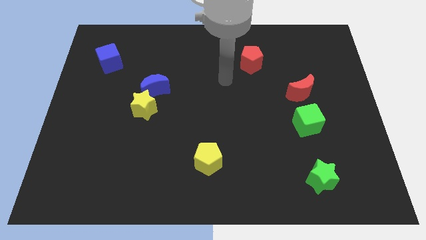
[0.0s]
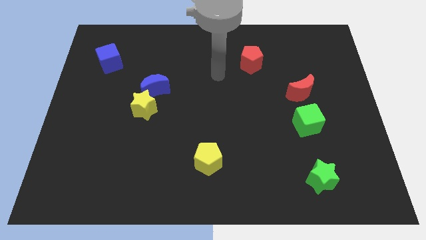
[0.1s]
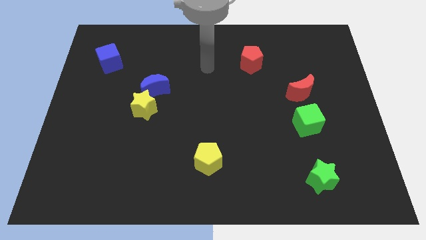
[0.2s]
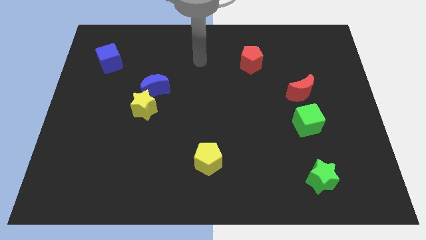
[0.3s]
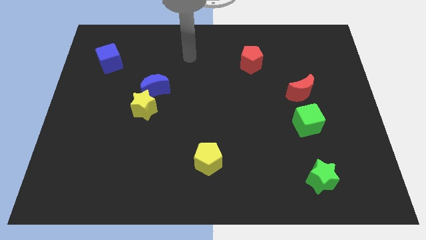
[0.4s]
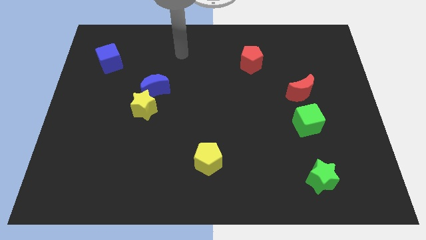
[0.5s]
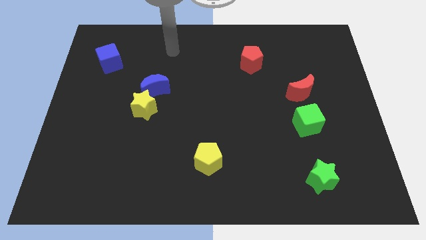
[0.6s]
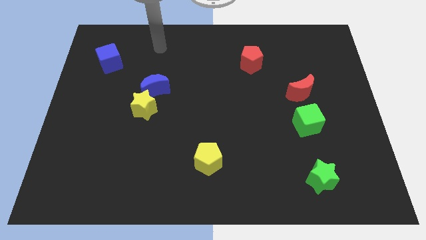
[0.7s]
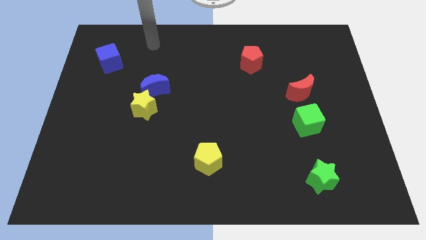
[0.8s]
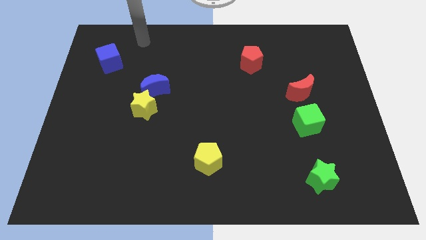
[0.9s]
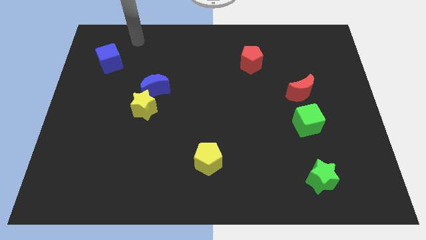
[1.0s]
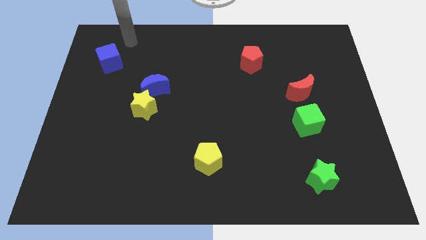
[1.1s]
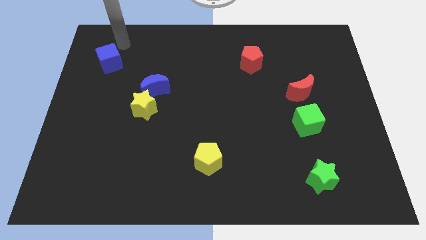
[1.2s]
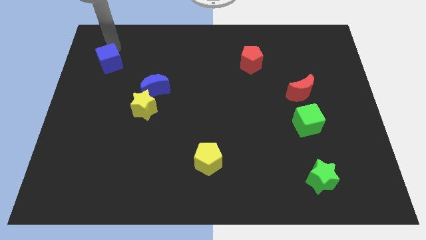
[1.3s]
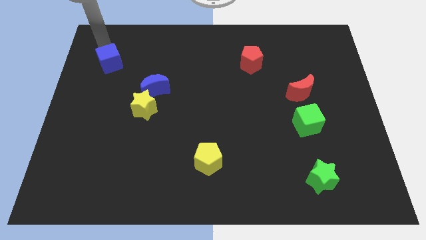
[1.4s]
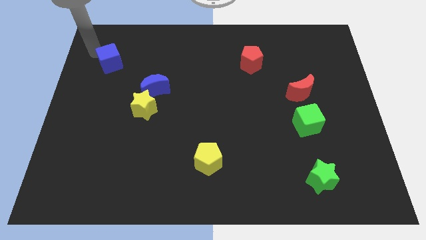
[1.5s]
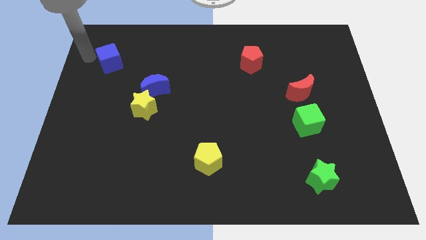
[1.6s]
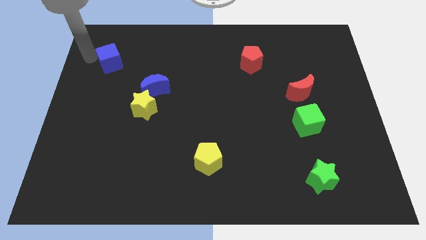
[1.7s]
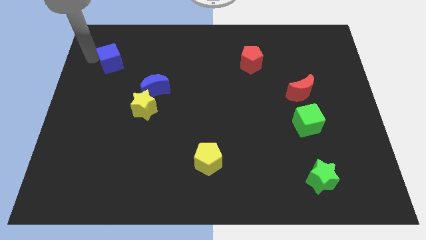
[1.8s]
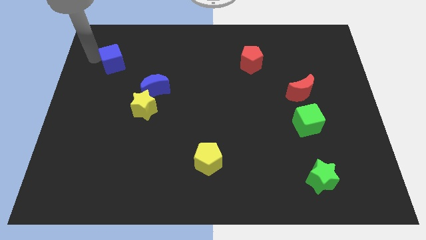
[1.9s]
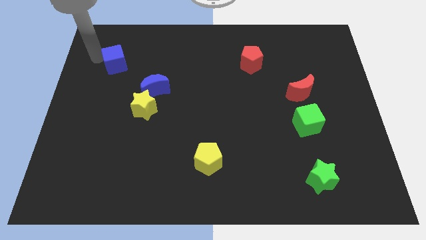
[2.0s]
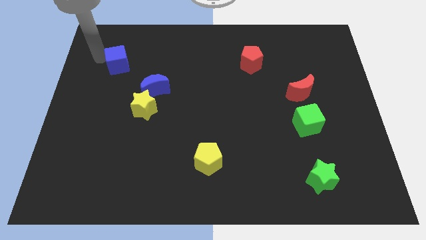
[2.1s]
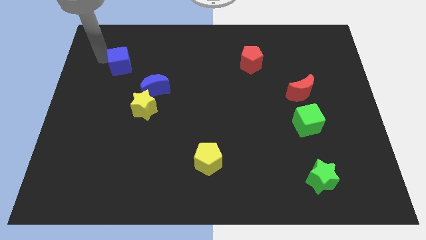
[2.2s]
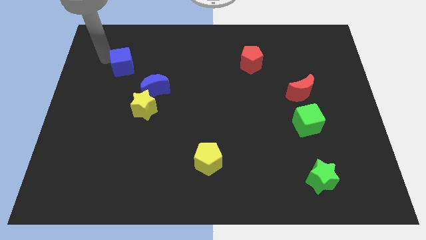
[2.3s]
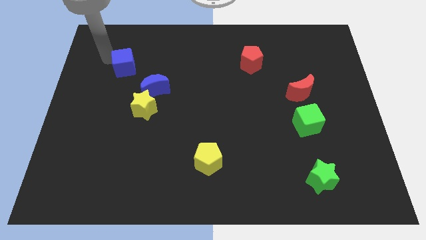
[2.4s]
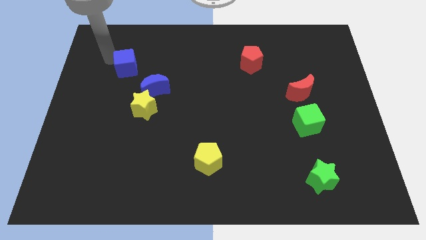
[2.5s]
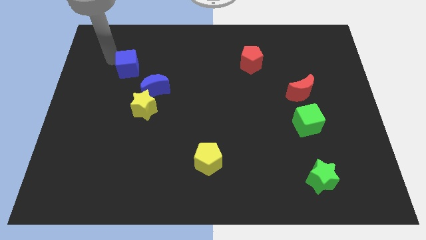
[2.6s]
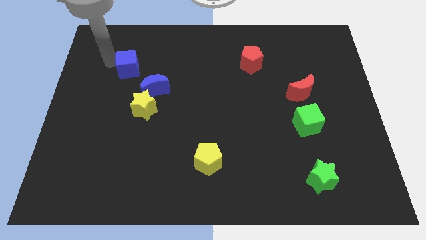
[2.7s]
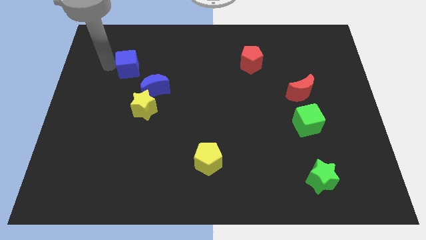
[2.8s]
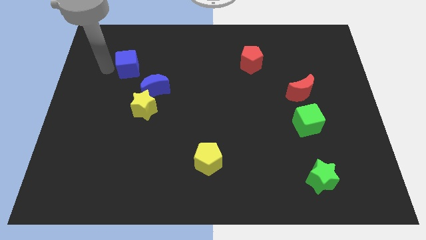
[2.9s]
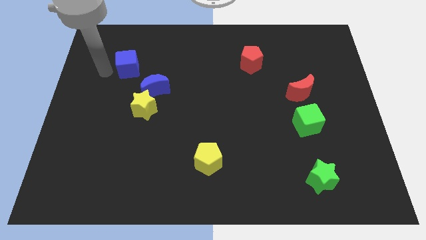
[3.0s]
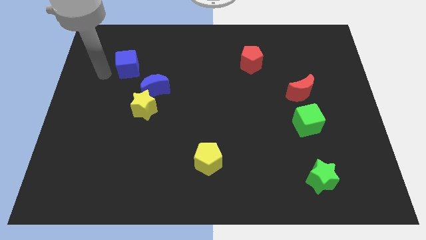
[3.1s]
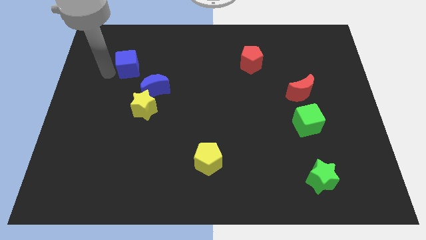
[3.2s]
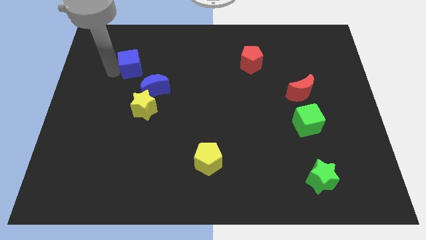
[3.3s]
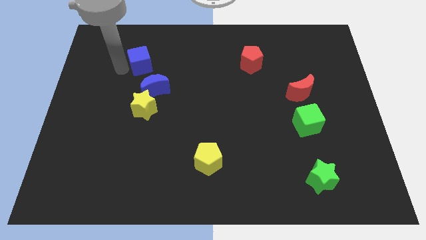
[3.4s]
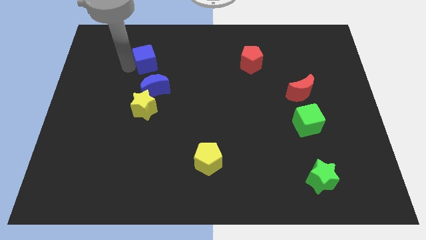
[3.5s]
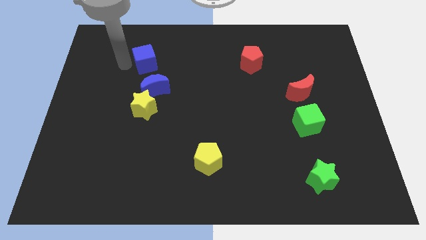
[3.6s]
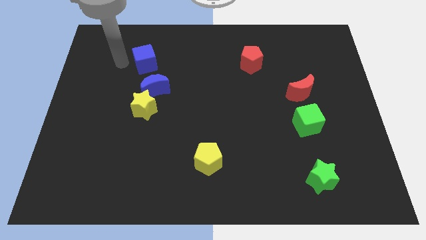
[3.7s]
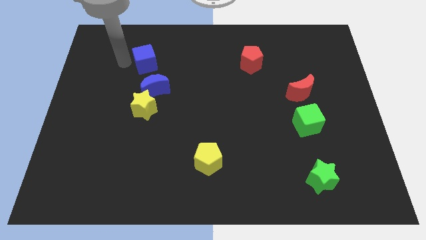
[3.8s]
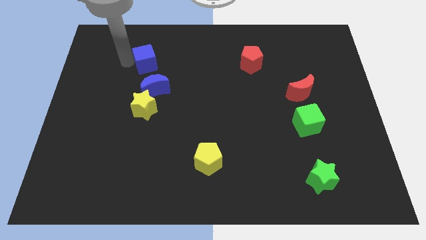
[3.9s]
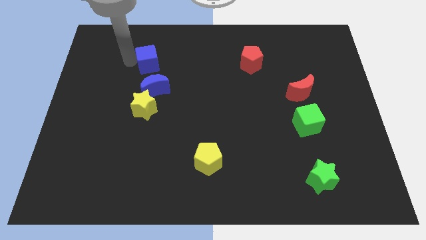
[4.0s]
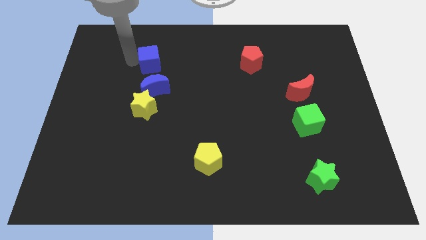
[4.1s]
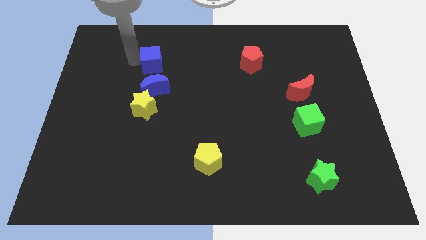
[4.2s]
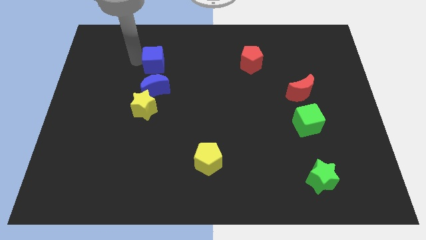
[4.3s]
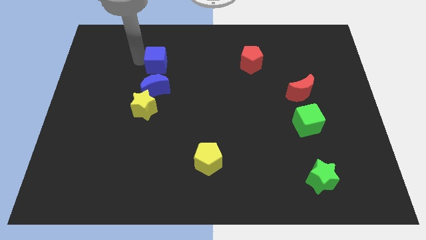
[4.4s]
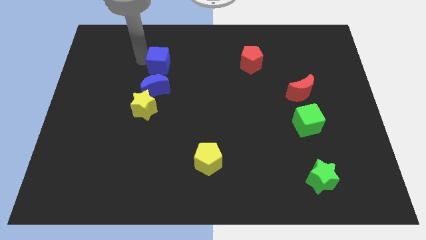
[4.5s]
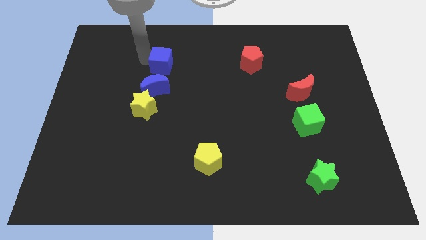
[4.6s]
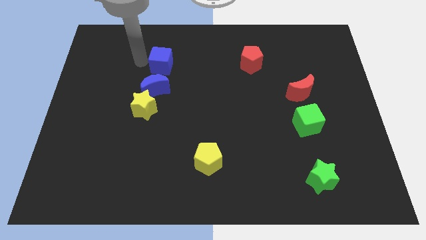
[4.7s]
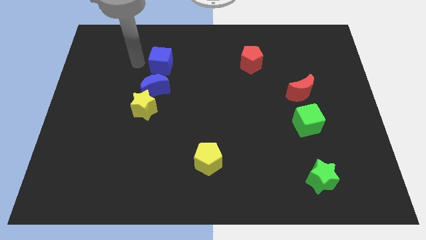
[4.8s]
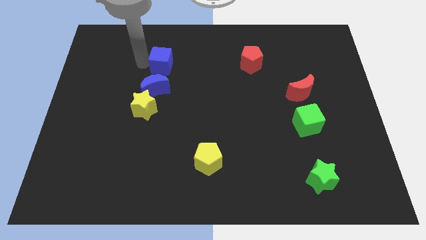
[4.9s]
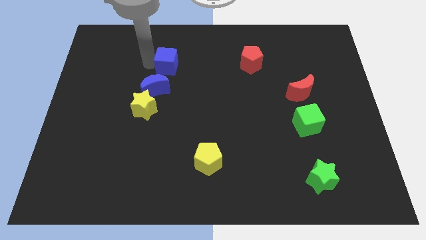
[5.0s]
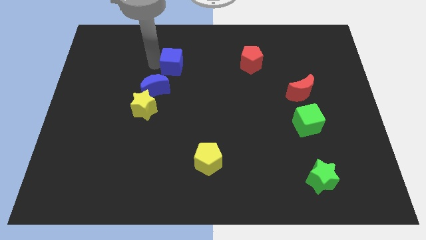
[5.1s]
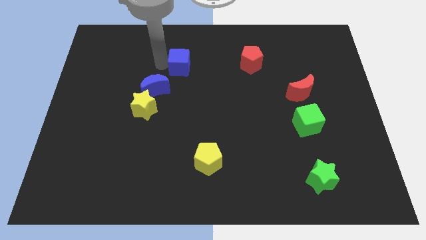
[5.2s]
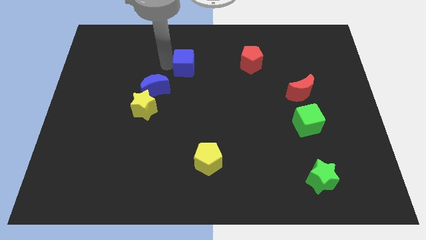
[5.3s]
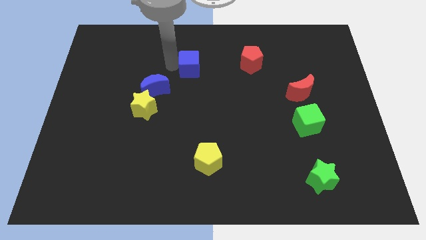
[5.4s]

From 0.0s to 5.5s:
slide the blue cube right

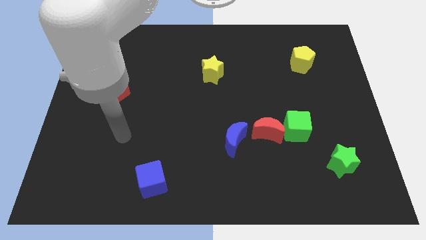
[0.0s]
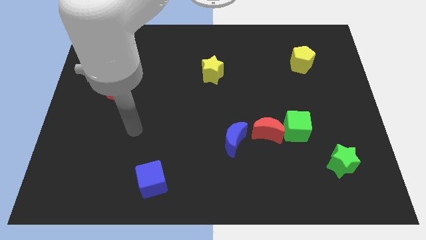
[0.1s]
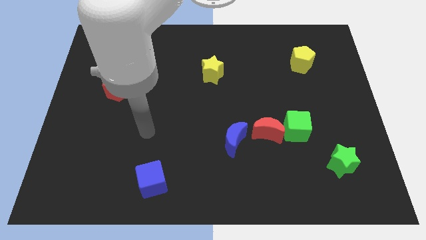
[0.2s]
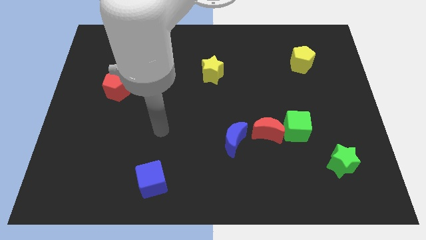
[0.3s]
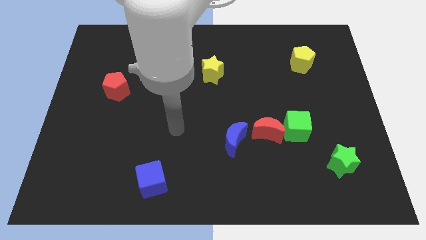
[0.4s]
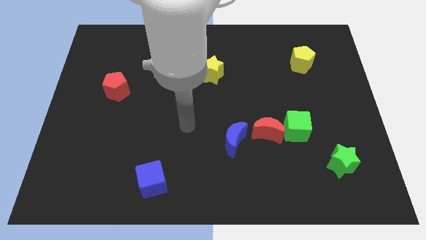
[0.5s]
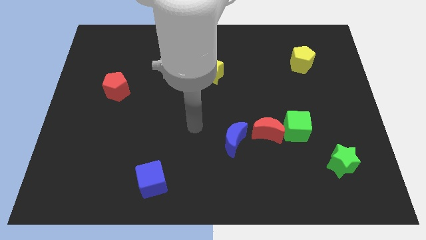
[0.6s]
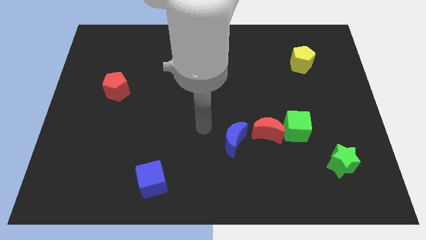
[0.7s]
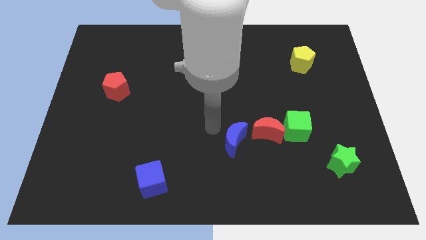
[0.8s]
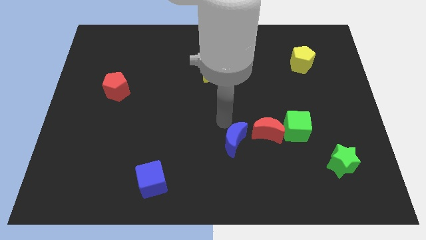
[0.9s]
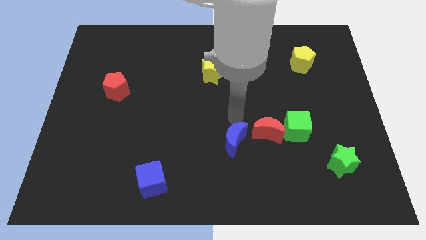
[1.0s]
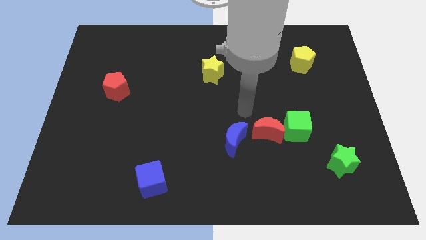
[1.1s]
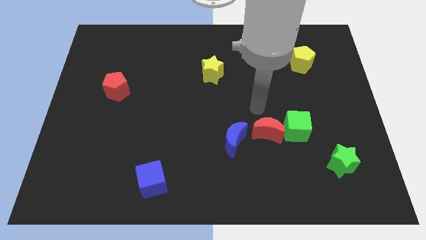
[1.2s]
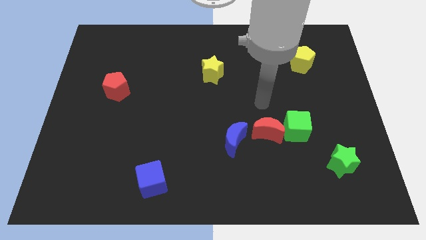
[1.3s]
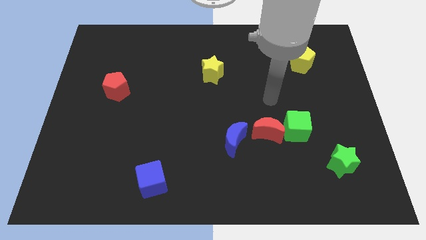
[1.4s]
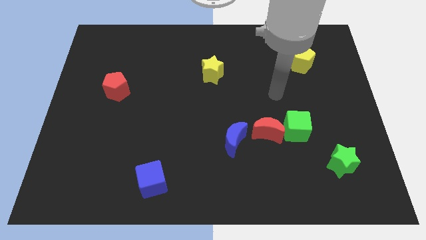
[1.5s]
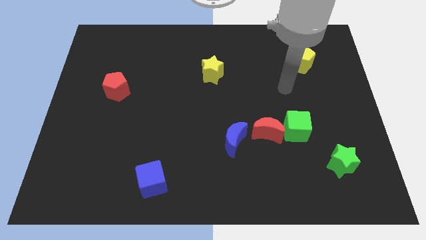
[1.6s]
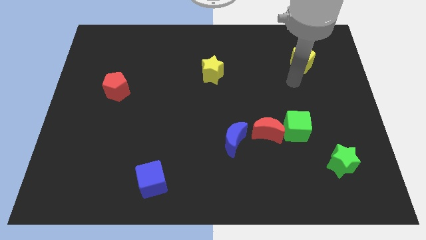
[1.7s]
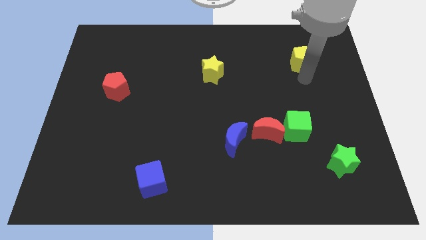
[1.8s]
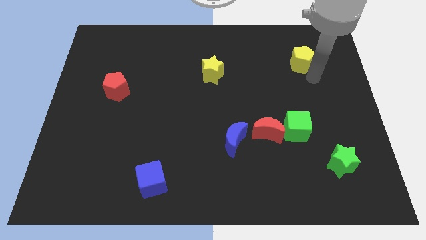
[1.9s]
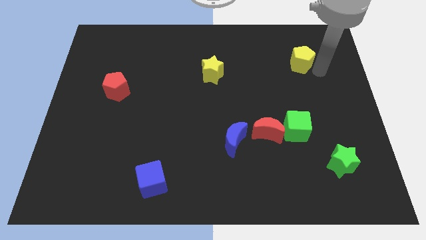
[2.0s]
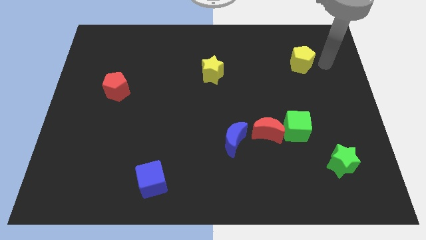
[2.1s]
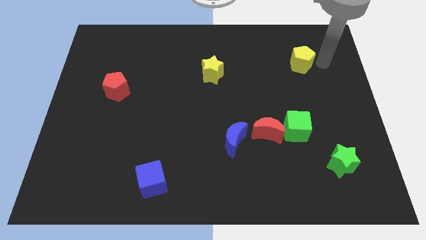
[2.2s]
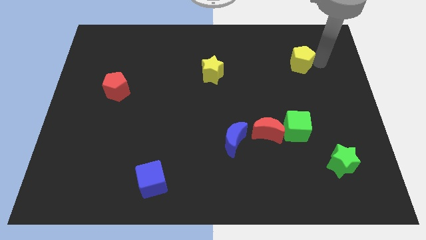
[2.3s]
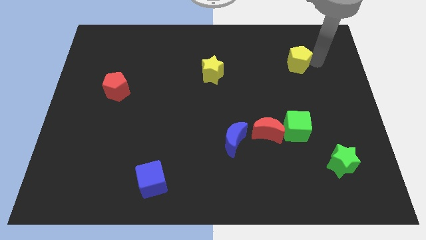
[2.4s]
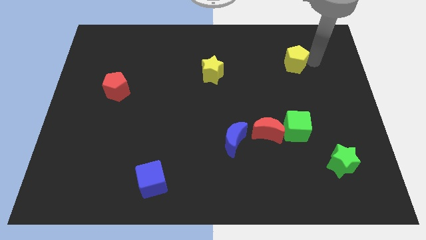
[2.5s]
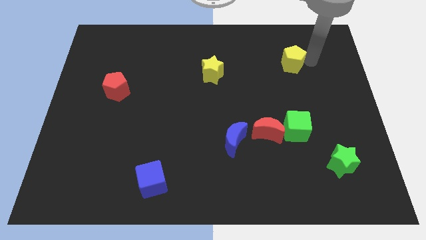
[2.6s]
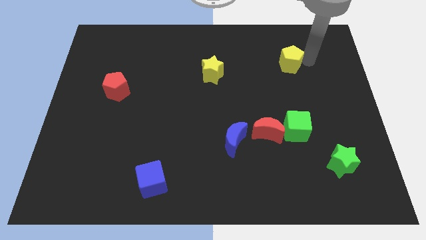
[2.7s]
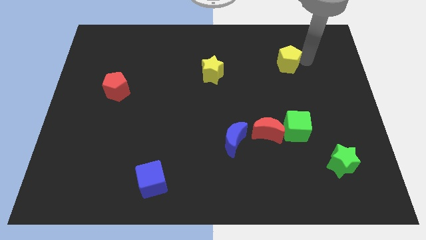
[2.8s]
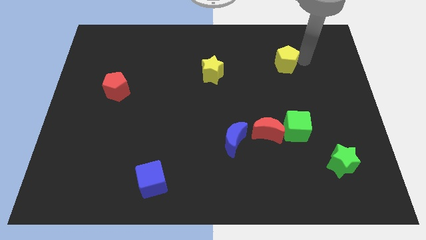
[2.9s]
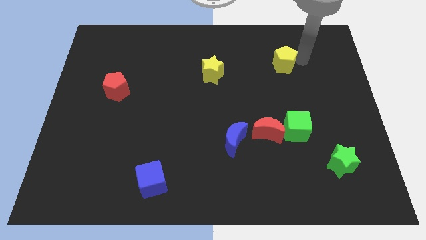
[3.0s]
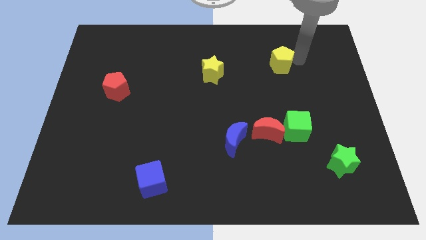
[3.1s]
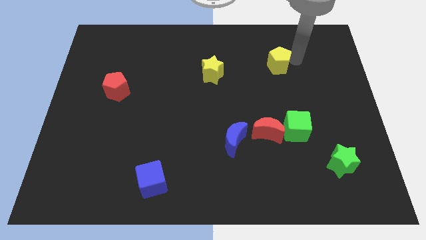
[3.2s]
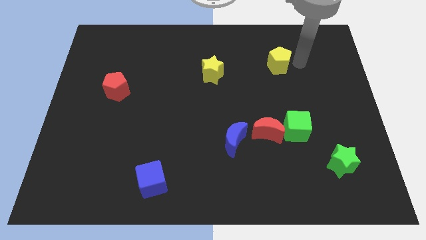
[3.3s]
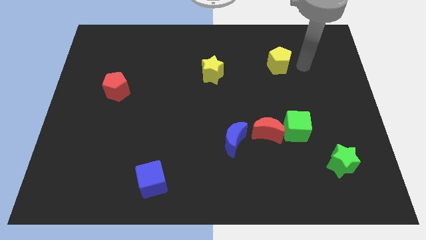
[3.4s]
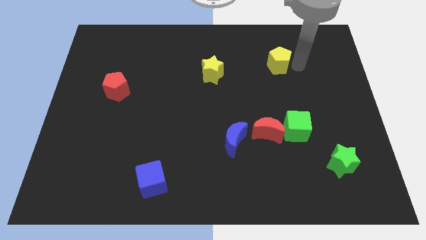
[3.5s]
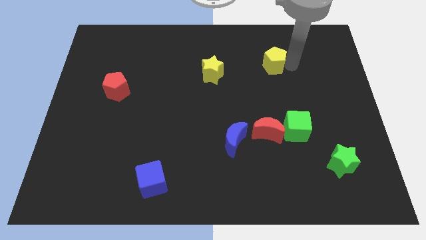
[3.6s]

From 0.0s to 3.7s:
slide the yellow pentagon a bit to the left
